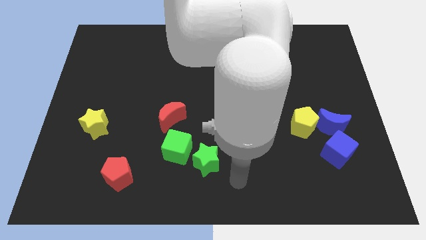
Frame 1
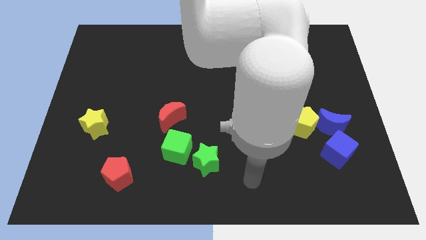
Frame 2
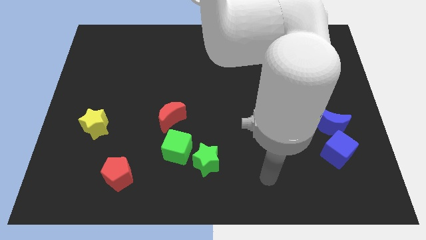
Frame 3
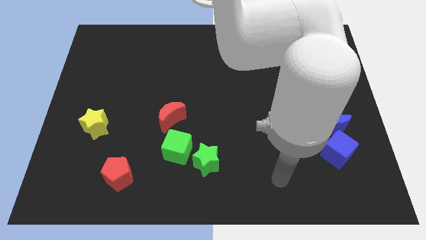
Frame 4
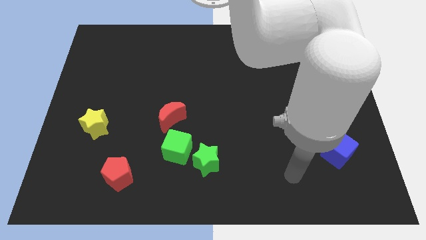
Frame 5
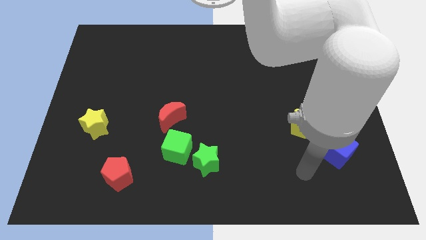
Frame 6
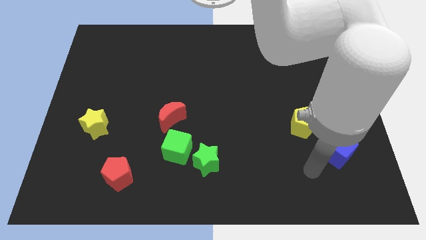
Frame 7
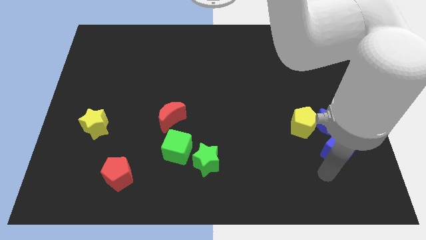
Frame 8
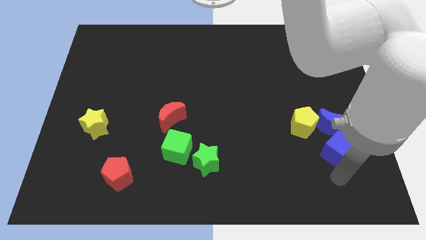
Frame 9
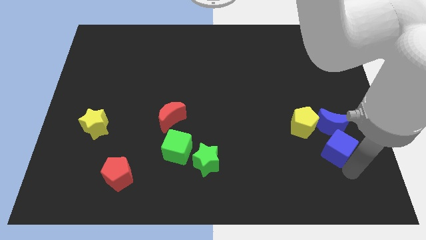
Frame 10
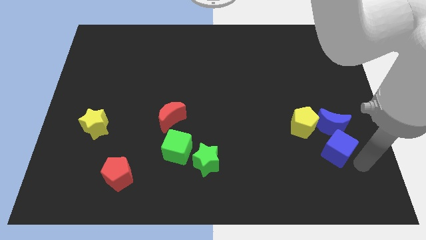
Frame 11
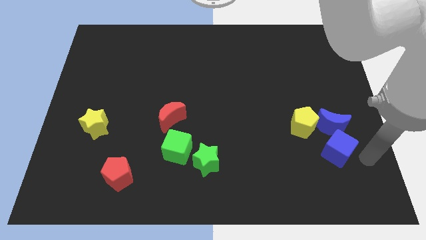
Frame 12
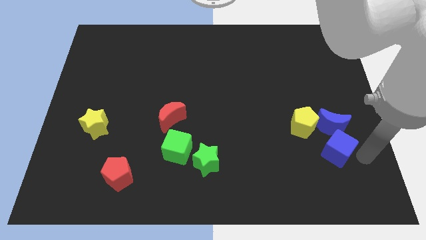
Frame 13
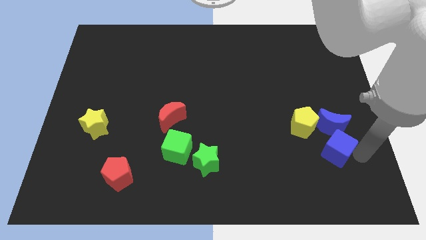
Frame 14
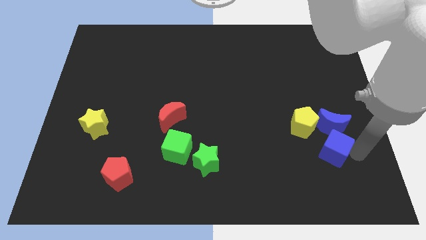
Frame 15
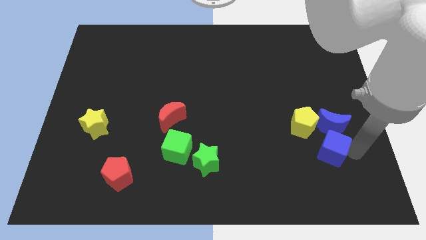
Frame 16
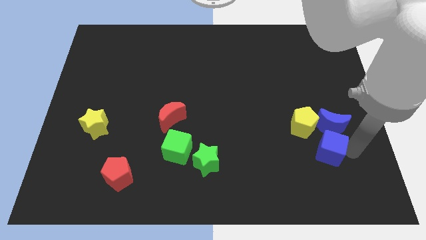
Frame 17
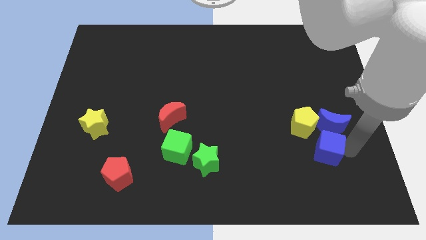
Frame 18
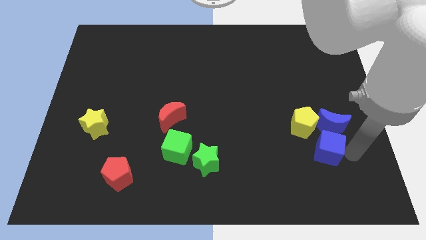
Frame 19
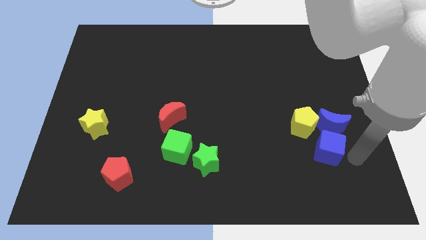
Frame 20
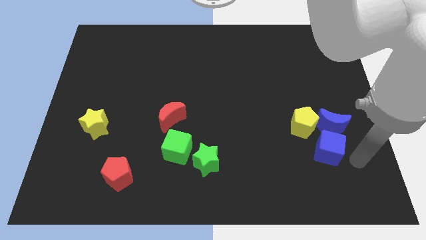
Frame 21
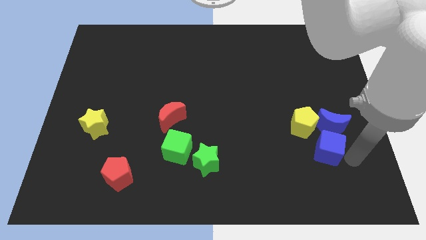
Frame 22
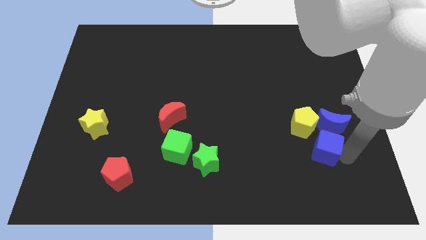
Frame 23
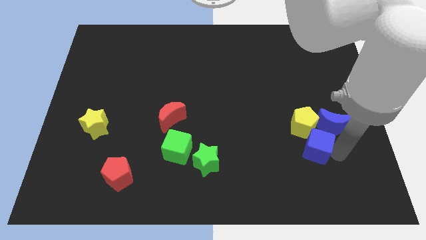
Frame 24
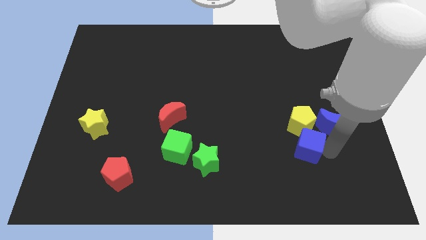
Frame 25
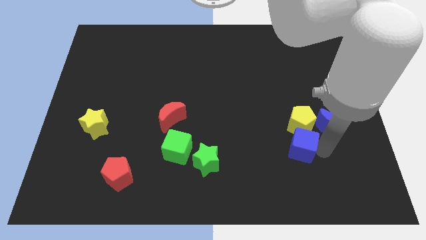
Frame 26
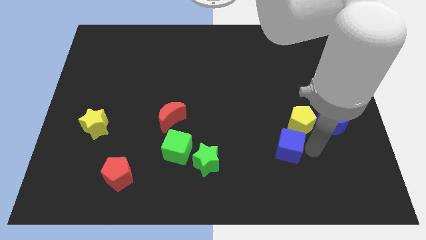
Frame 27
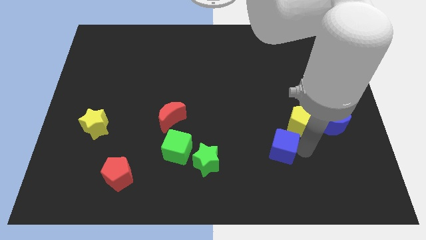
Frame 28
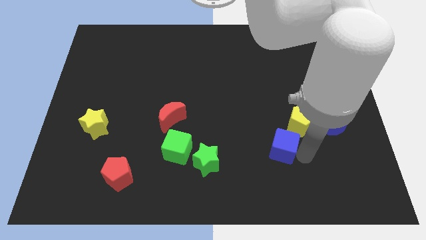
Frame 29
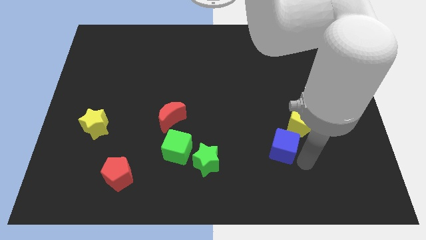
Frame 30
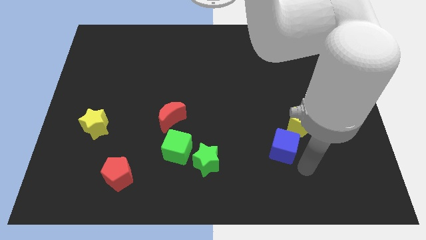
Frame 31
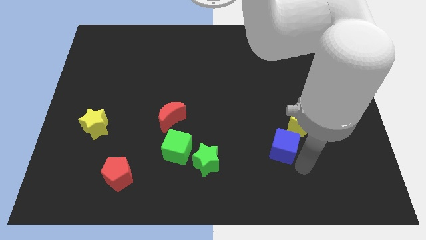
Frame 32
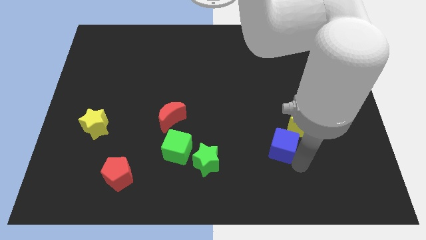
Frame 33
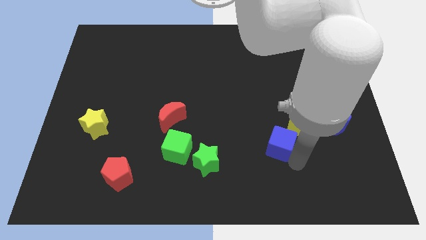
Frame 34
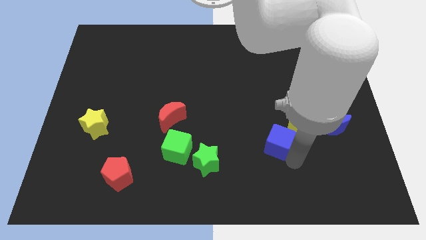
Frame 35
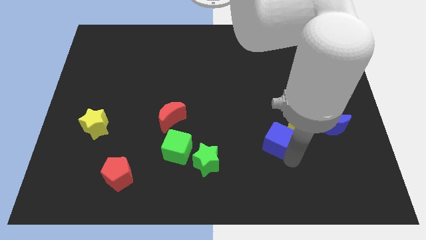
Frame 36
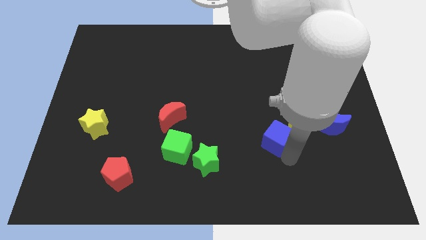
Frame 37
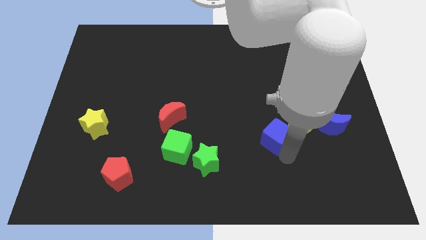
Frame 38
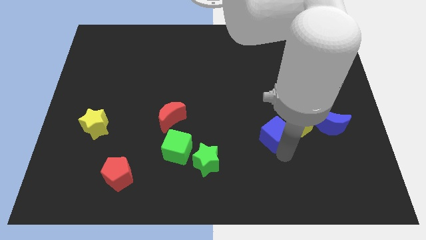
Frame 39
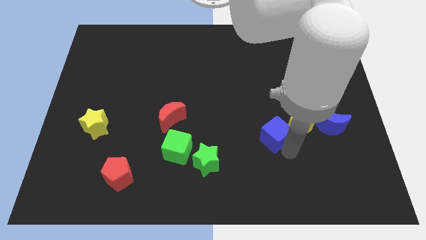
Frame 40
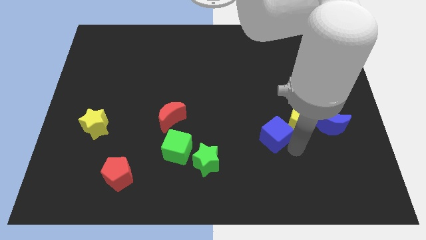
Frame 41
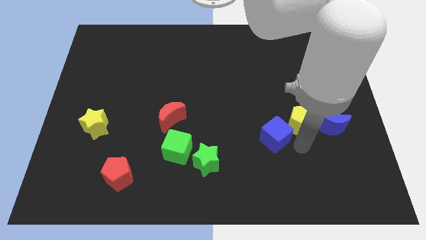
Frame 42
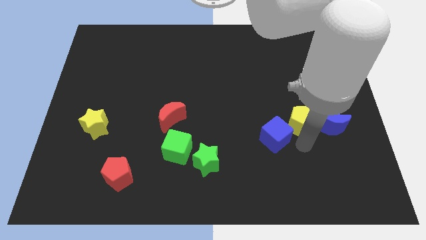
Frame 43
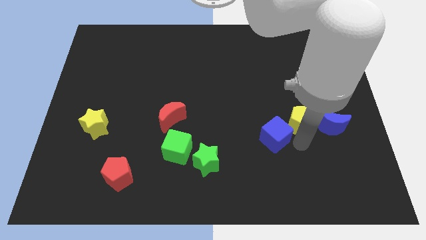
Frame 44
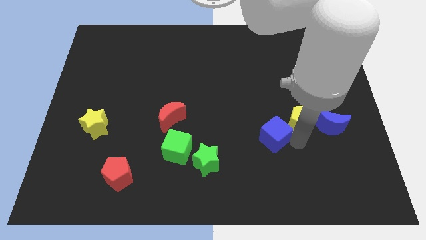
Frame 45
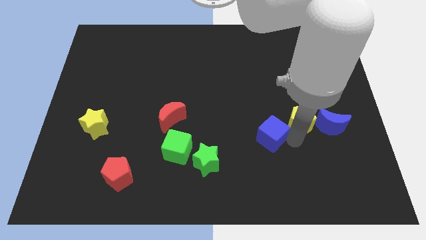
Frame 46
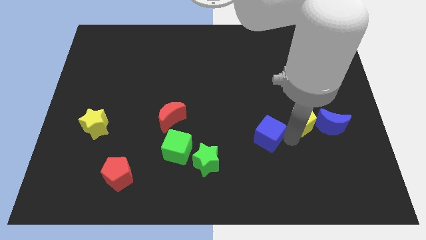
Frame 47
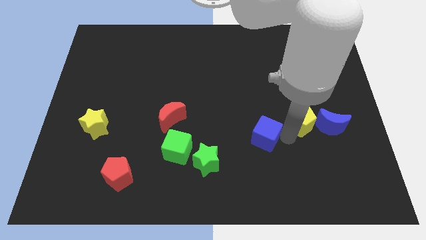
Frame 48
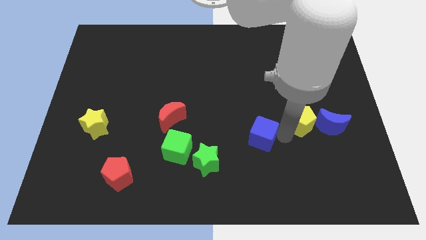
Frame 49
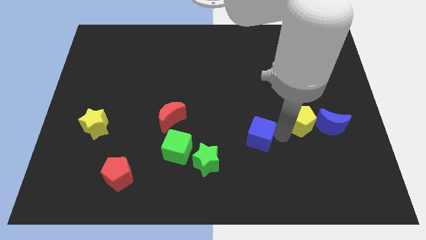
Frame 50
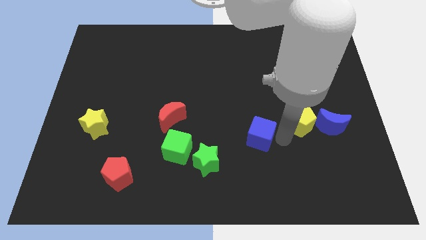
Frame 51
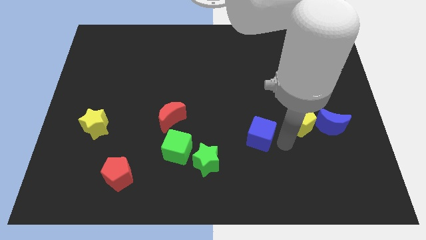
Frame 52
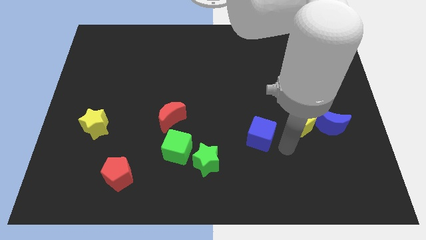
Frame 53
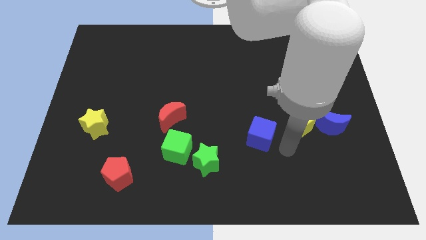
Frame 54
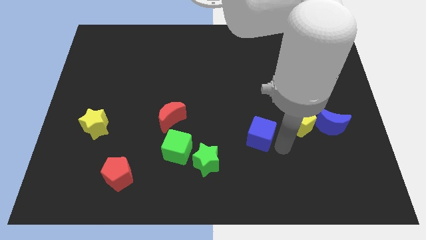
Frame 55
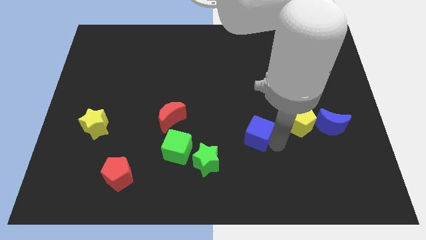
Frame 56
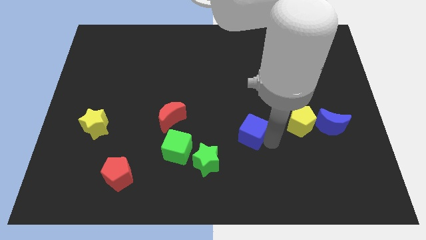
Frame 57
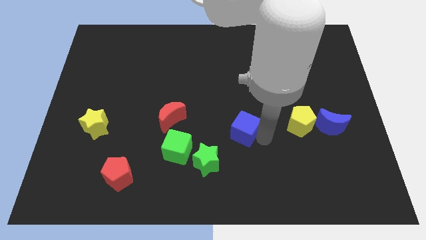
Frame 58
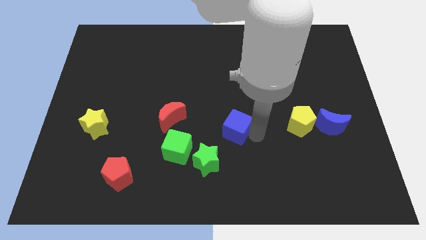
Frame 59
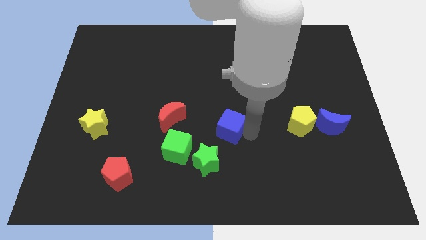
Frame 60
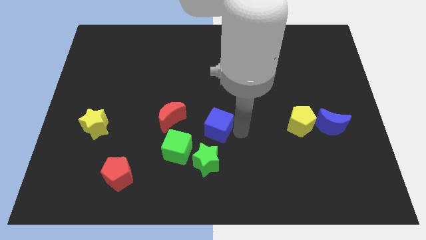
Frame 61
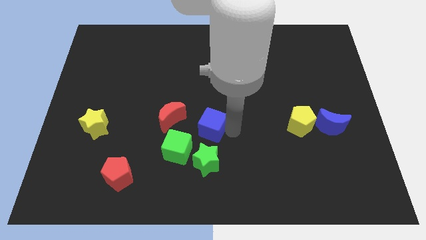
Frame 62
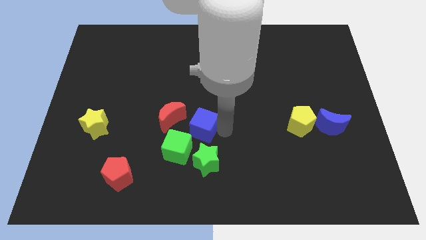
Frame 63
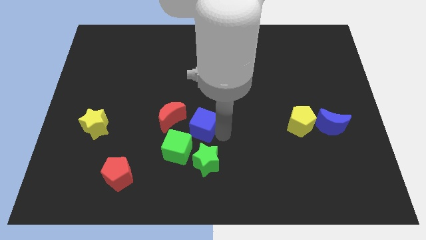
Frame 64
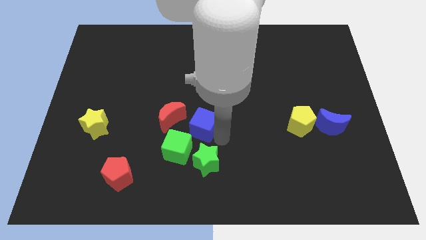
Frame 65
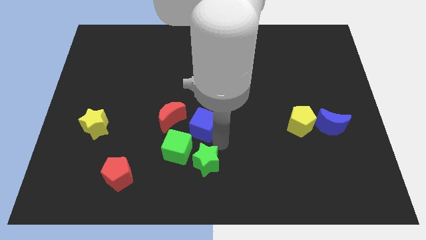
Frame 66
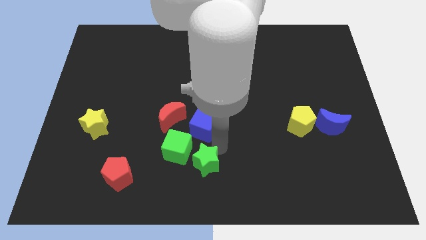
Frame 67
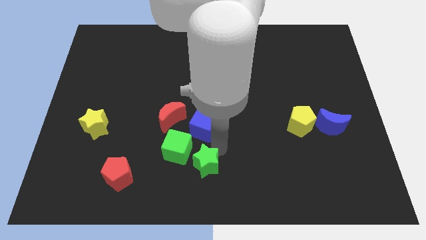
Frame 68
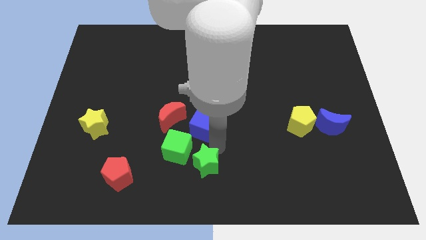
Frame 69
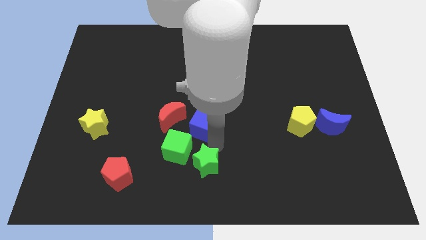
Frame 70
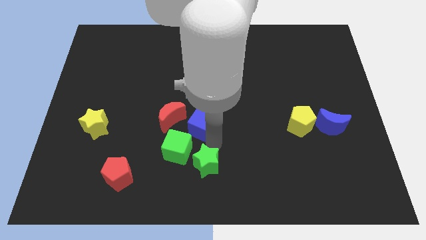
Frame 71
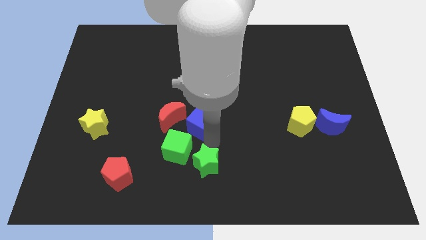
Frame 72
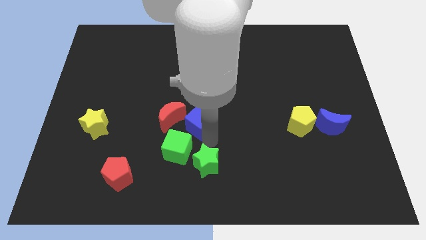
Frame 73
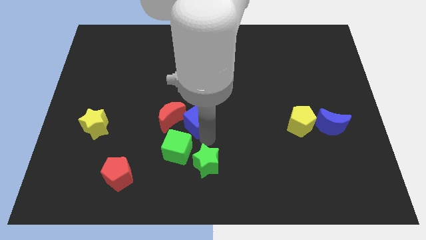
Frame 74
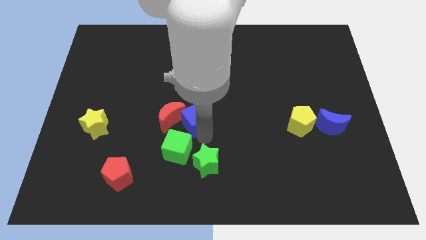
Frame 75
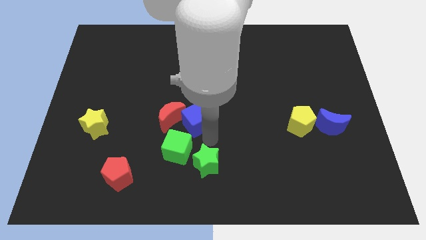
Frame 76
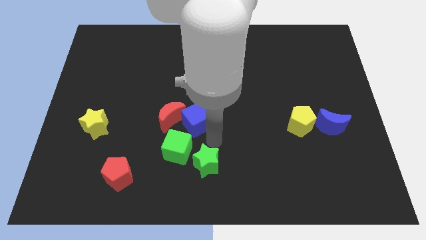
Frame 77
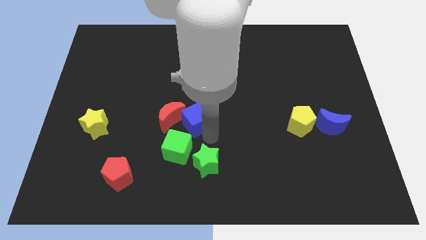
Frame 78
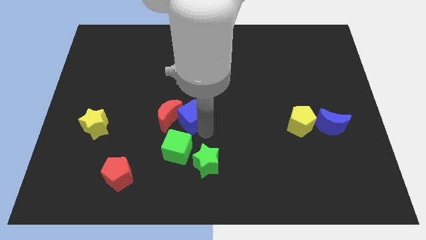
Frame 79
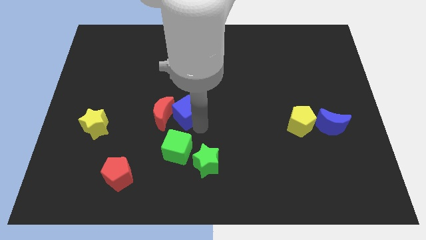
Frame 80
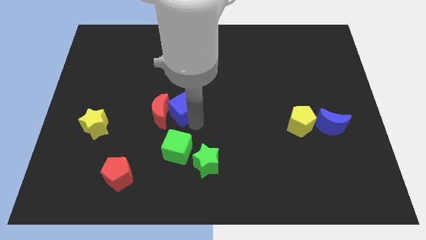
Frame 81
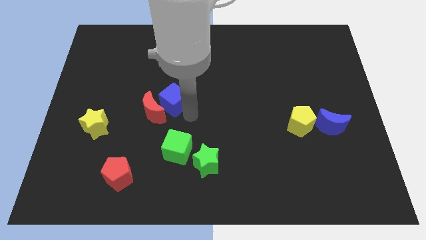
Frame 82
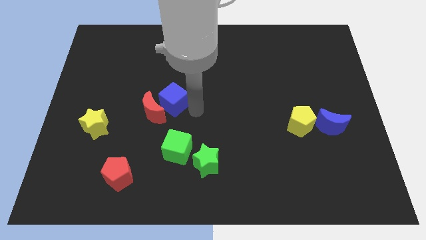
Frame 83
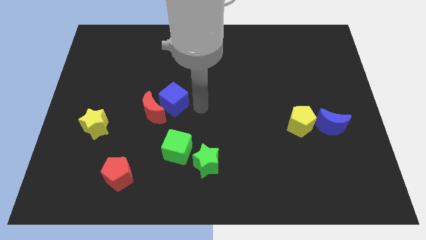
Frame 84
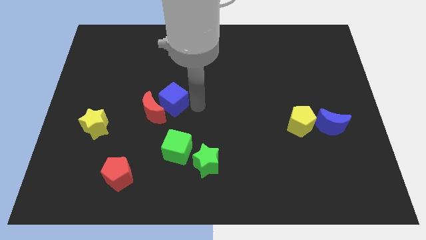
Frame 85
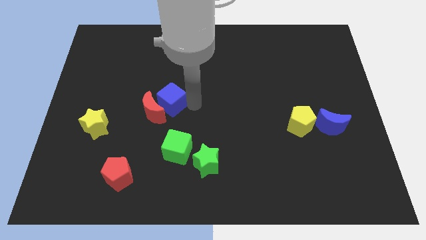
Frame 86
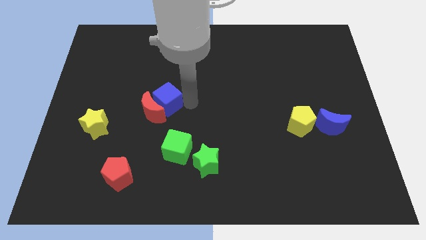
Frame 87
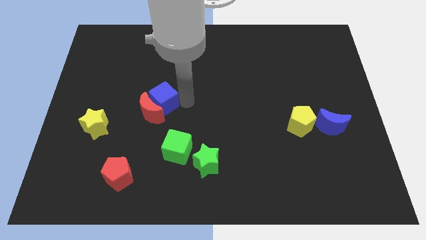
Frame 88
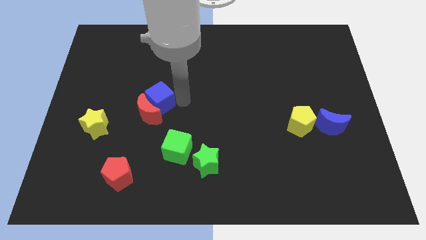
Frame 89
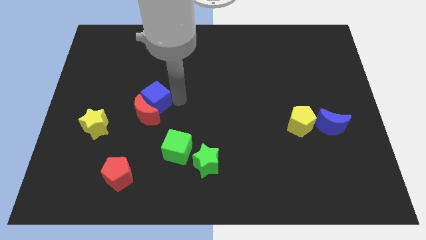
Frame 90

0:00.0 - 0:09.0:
push the blue cube to the top left of the red moon
